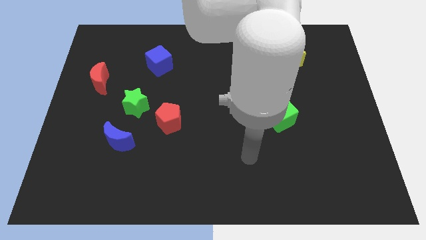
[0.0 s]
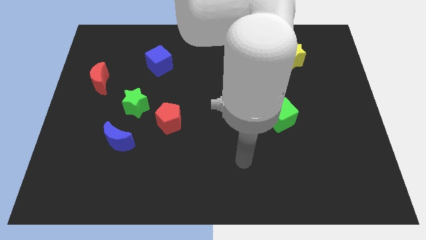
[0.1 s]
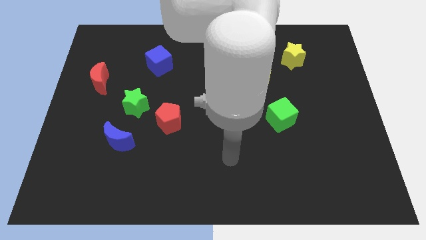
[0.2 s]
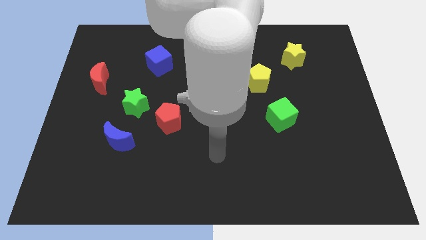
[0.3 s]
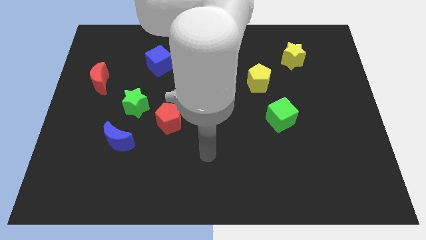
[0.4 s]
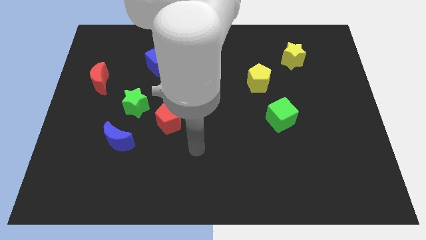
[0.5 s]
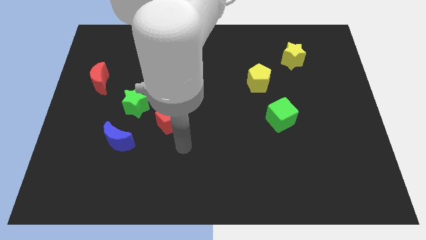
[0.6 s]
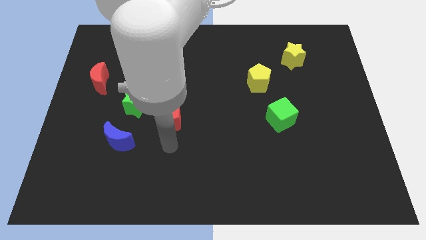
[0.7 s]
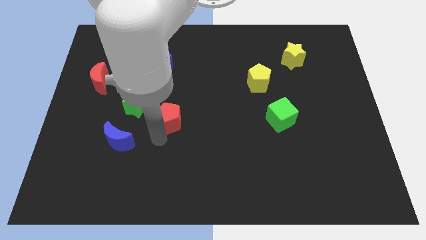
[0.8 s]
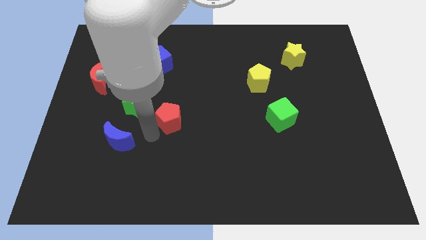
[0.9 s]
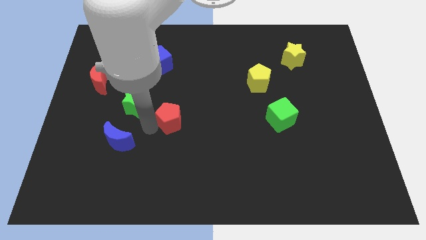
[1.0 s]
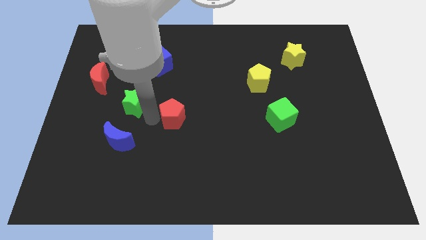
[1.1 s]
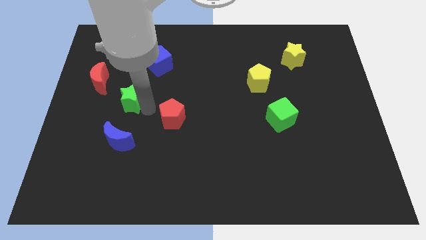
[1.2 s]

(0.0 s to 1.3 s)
pull the red pentagon apart from the green star

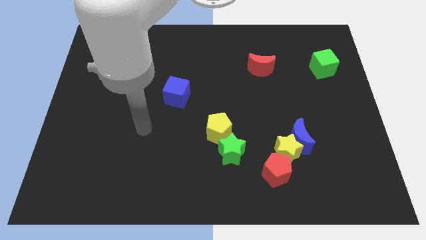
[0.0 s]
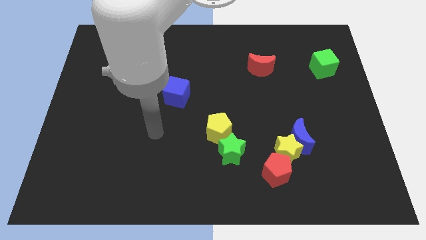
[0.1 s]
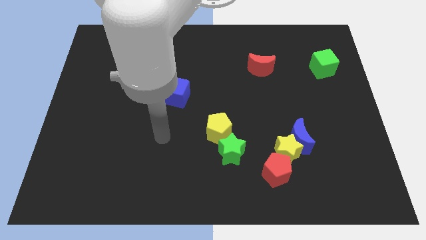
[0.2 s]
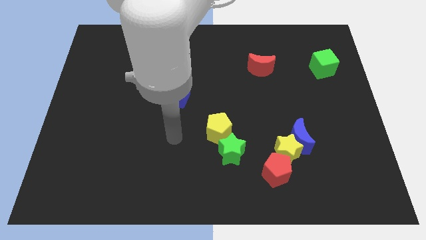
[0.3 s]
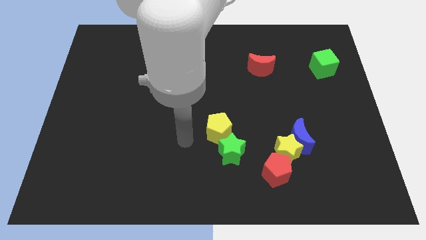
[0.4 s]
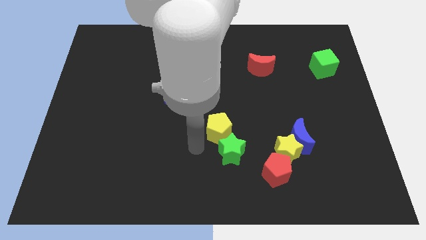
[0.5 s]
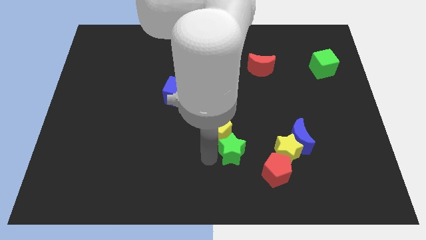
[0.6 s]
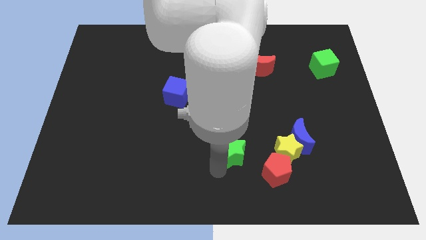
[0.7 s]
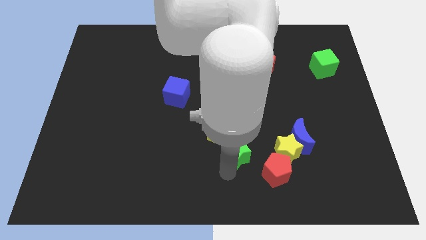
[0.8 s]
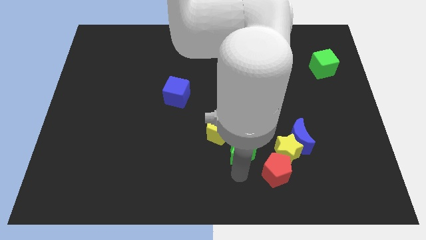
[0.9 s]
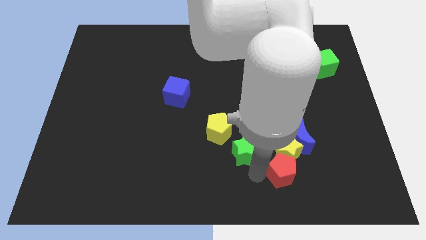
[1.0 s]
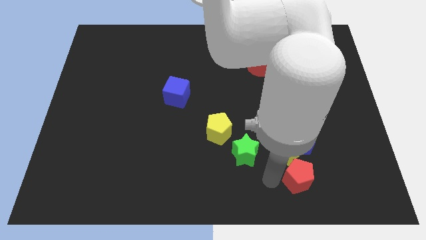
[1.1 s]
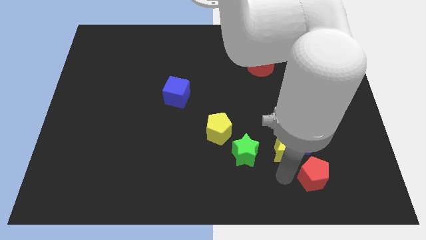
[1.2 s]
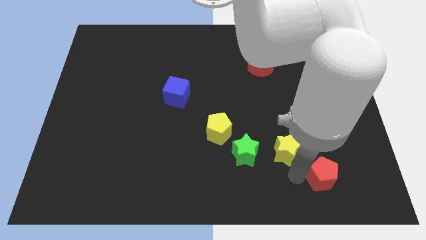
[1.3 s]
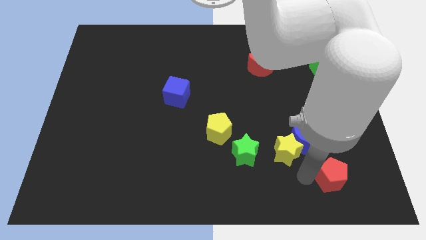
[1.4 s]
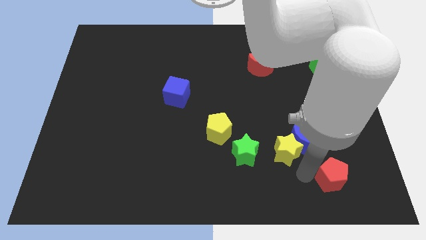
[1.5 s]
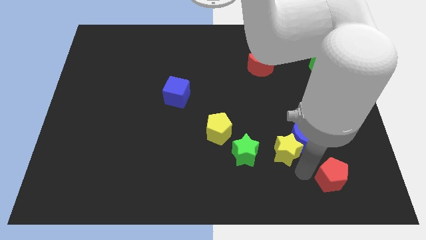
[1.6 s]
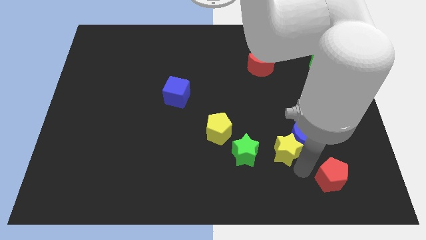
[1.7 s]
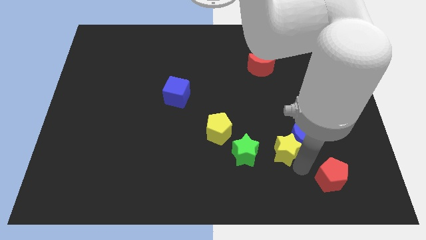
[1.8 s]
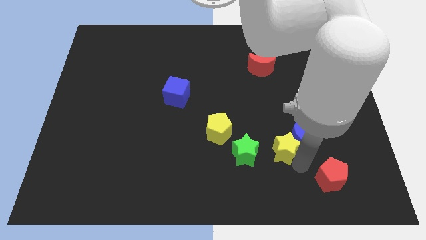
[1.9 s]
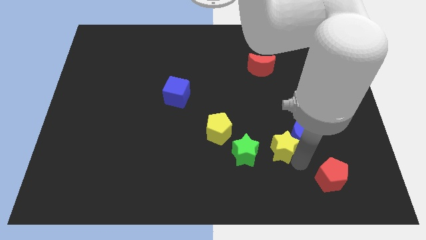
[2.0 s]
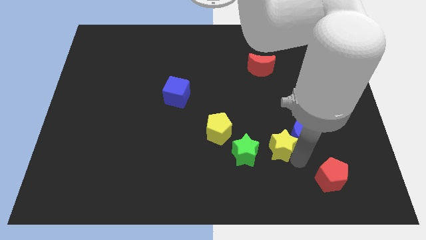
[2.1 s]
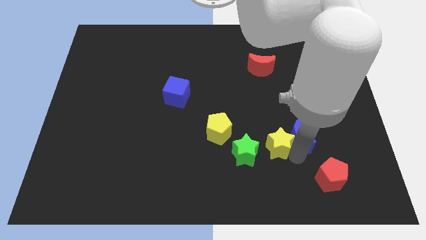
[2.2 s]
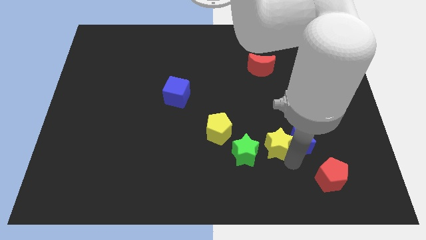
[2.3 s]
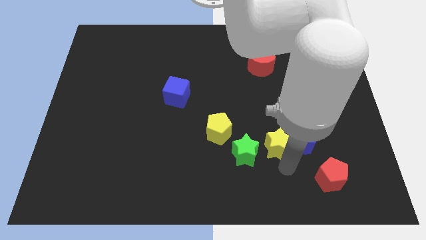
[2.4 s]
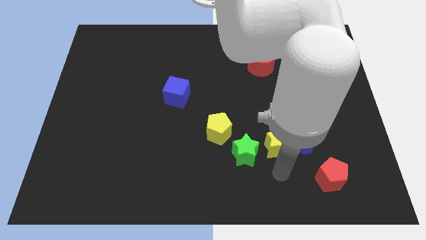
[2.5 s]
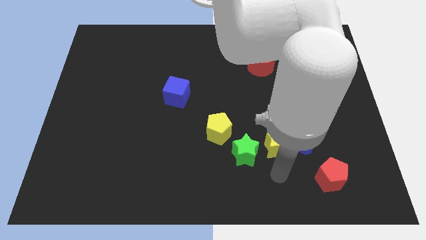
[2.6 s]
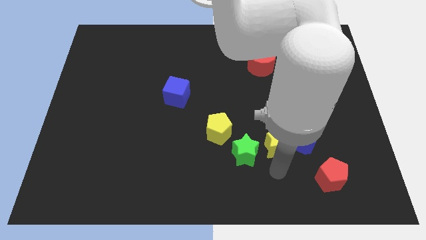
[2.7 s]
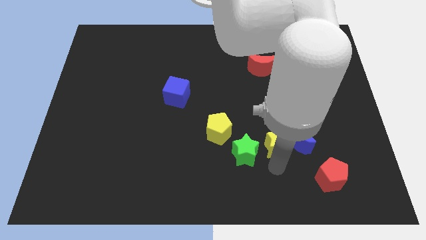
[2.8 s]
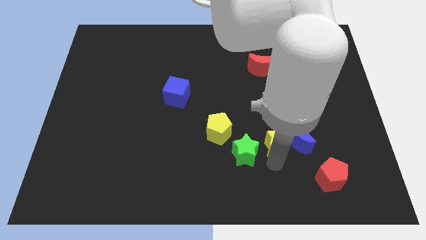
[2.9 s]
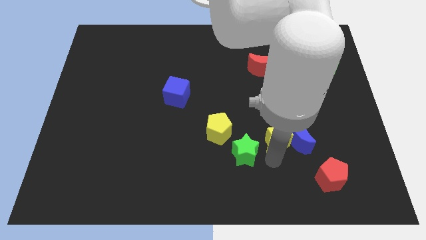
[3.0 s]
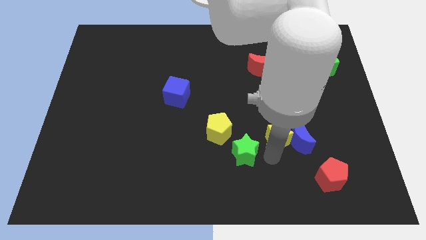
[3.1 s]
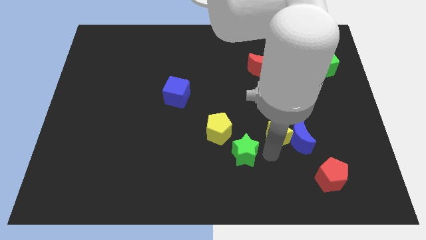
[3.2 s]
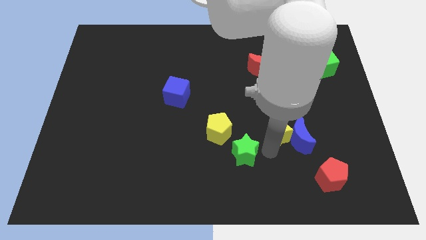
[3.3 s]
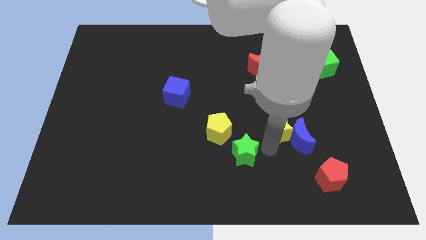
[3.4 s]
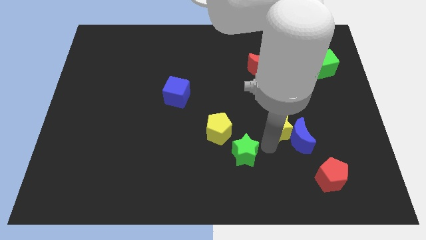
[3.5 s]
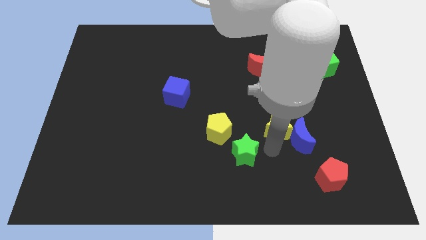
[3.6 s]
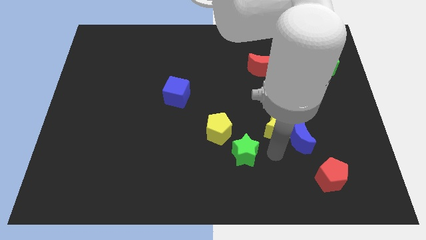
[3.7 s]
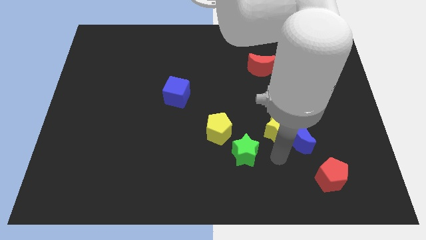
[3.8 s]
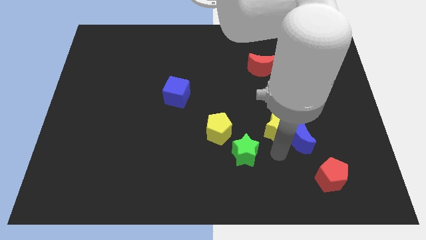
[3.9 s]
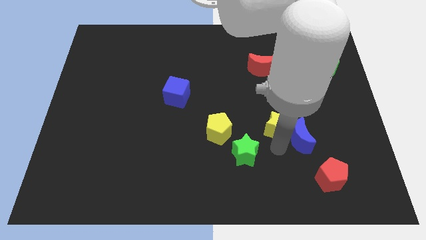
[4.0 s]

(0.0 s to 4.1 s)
pull the yellow star apart from the blue moon and red pentagon

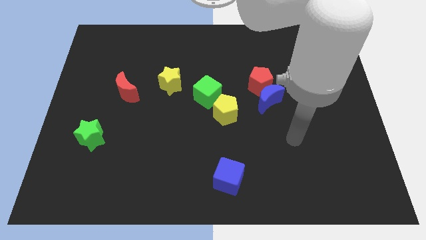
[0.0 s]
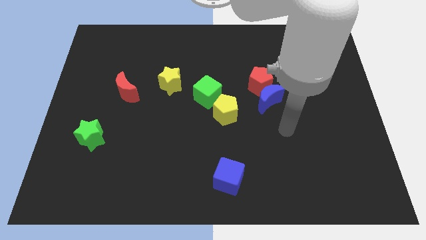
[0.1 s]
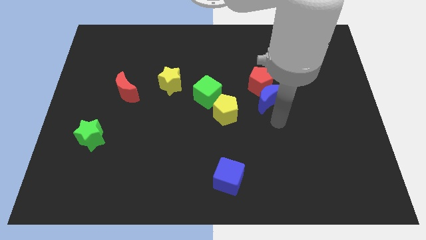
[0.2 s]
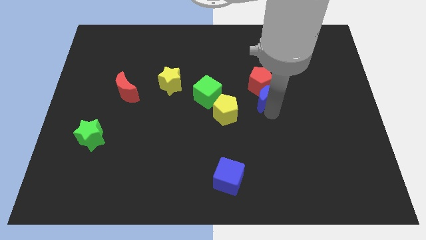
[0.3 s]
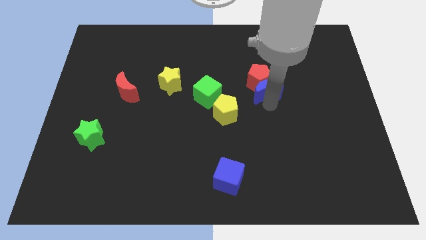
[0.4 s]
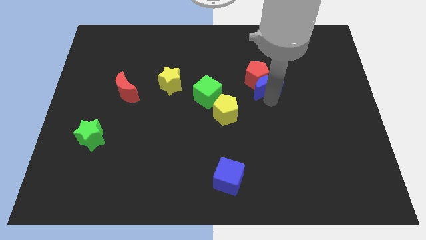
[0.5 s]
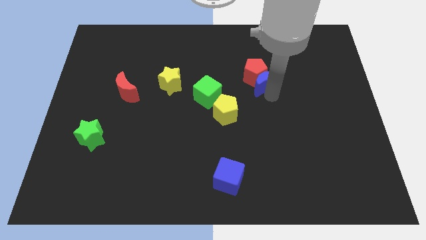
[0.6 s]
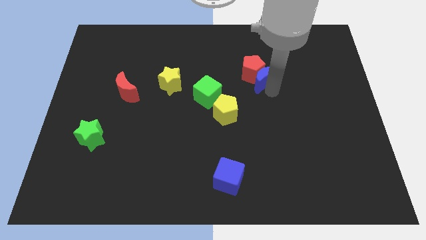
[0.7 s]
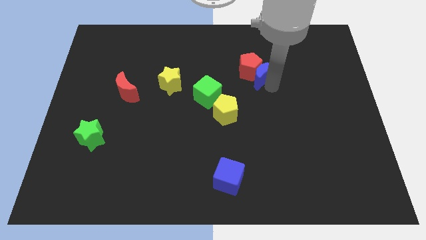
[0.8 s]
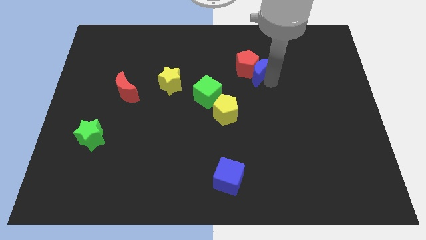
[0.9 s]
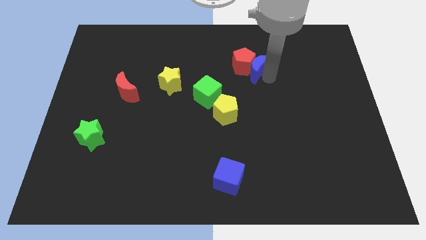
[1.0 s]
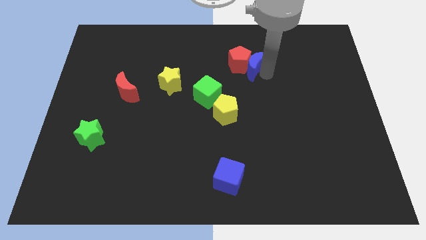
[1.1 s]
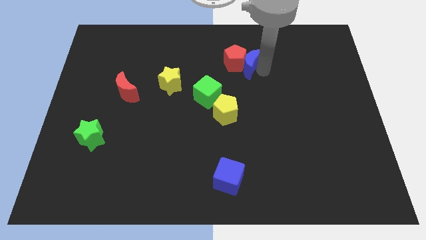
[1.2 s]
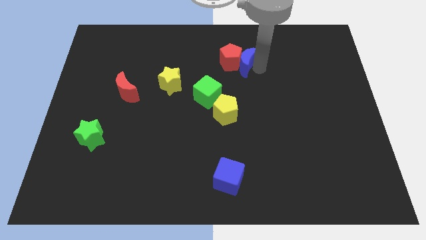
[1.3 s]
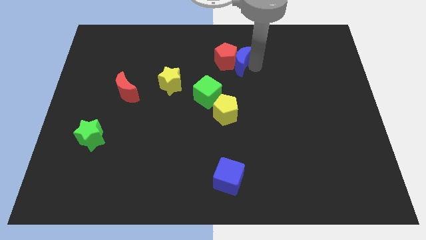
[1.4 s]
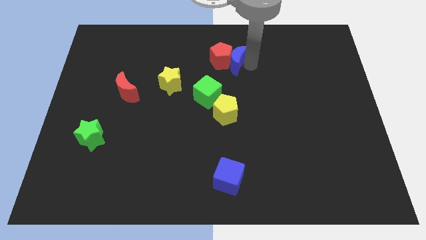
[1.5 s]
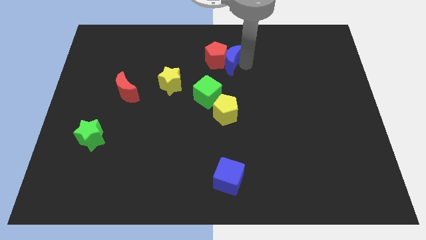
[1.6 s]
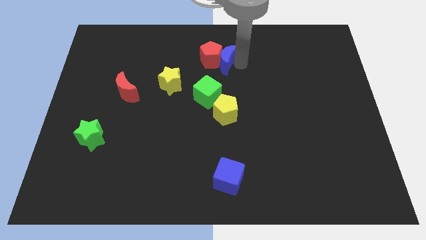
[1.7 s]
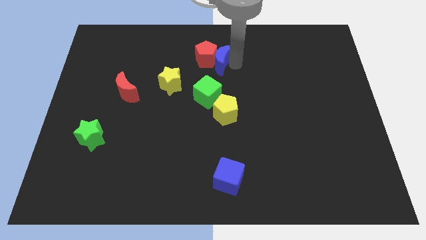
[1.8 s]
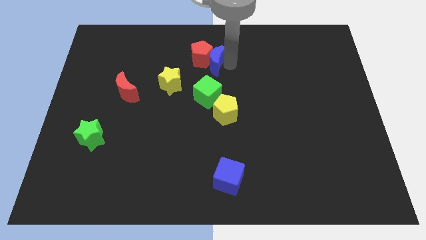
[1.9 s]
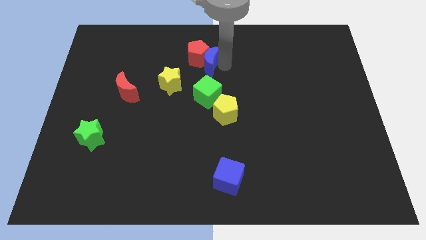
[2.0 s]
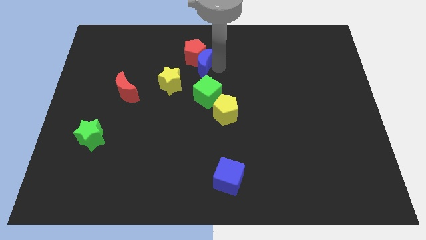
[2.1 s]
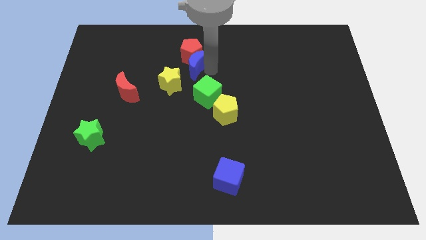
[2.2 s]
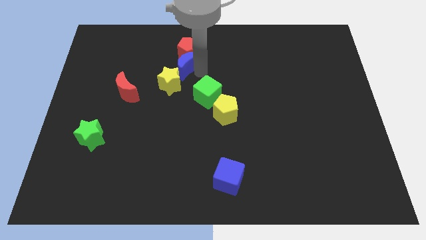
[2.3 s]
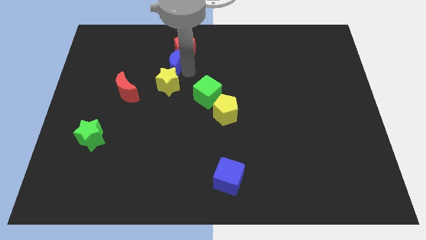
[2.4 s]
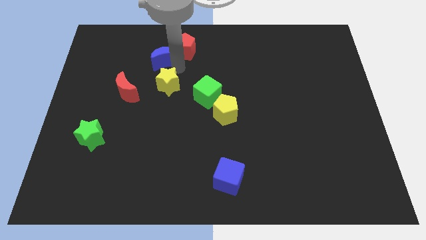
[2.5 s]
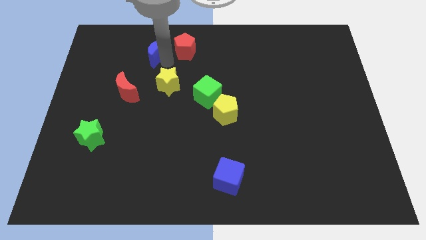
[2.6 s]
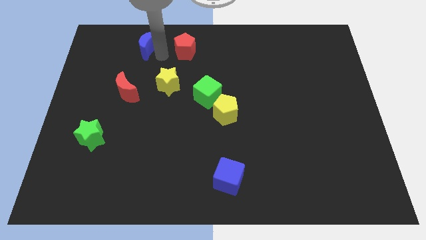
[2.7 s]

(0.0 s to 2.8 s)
pull the red pentagon apart from the blue moon

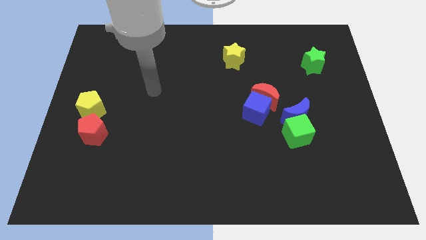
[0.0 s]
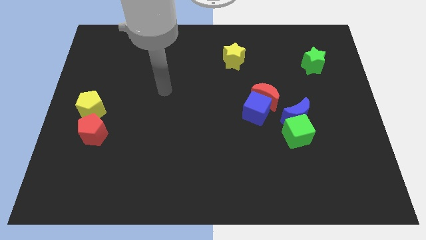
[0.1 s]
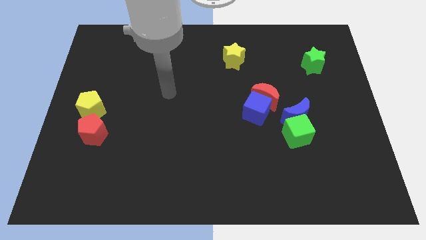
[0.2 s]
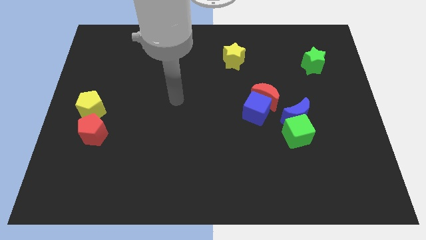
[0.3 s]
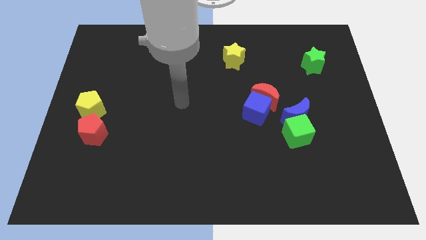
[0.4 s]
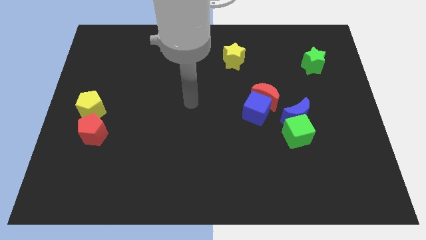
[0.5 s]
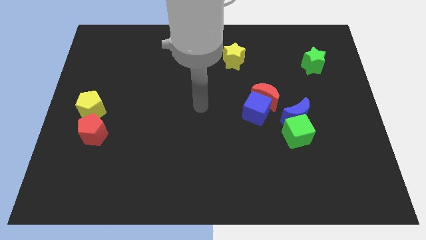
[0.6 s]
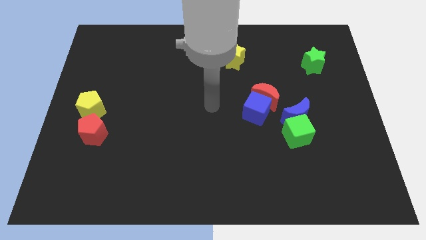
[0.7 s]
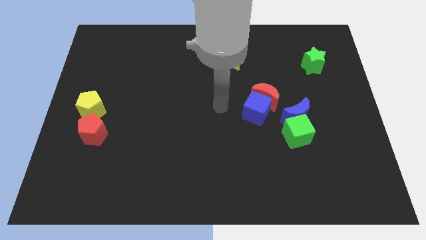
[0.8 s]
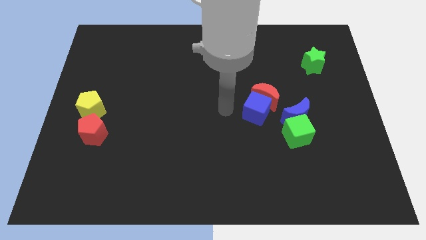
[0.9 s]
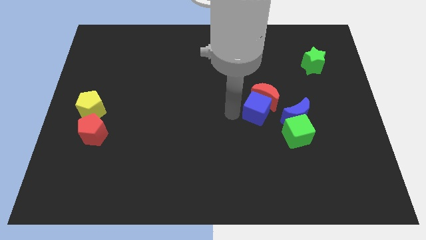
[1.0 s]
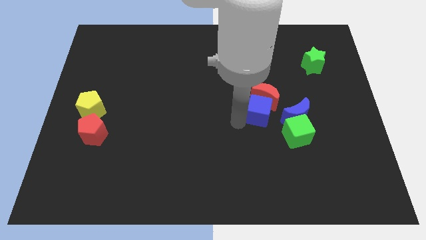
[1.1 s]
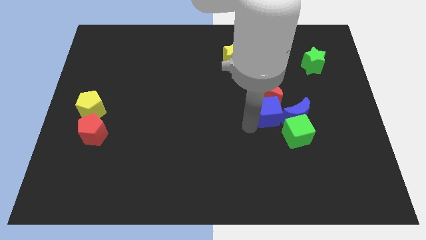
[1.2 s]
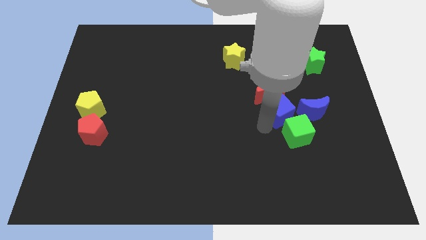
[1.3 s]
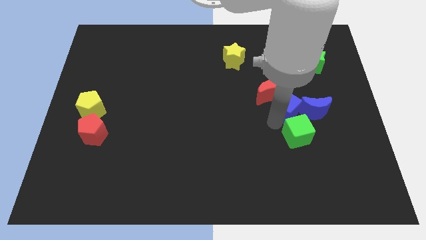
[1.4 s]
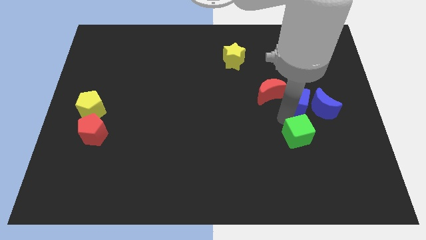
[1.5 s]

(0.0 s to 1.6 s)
pull the green cube apart from the blue moon
